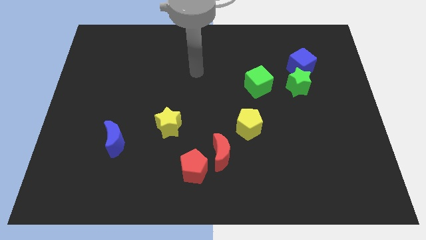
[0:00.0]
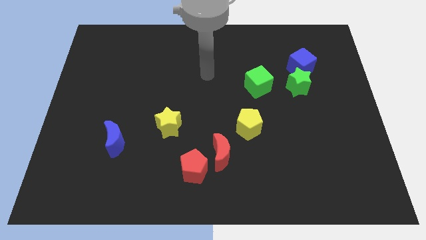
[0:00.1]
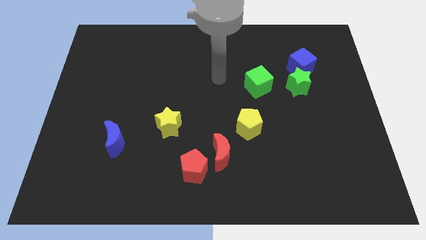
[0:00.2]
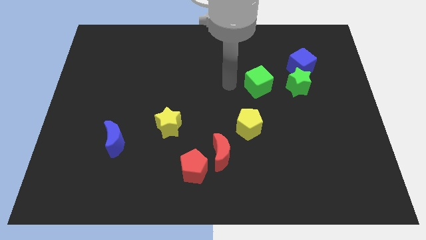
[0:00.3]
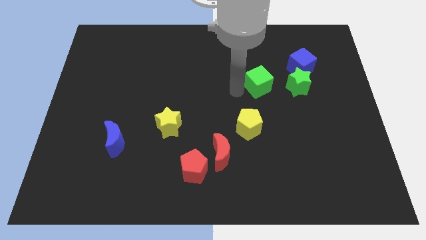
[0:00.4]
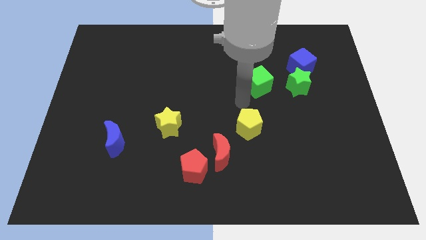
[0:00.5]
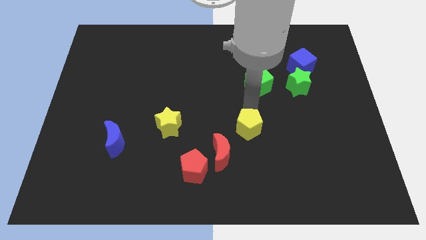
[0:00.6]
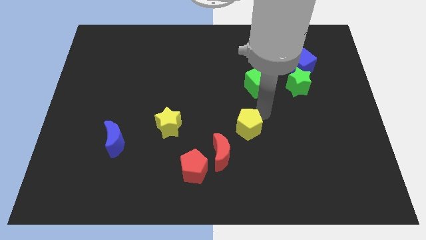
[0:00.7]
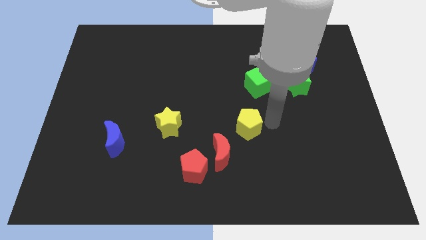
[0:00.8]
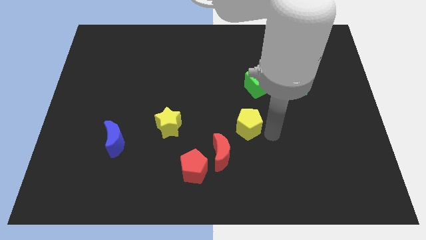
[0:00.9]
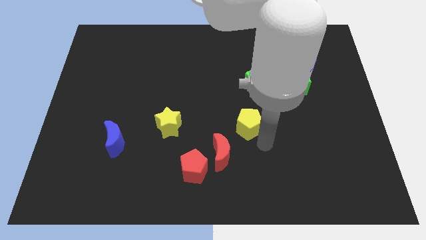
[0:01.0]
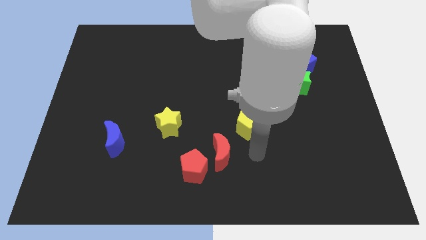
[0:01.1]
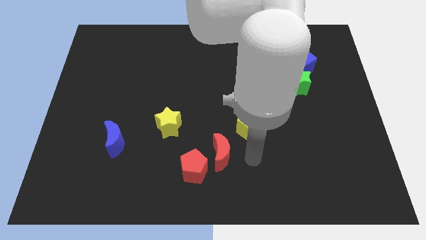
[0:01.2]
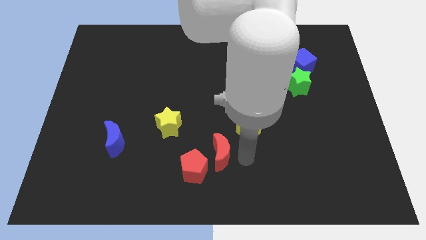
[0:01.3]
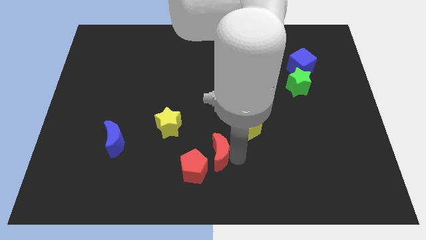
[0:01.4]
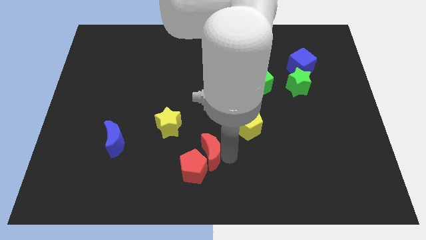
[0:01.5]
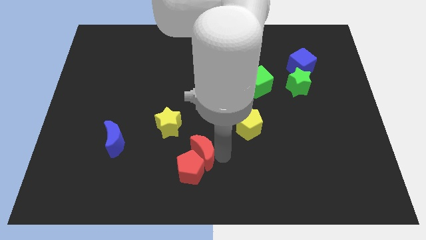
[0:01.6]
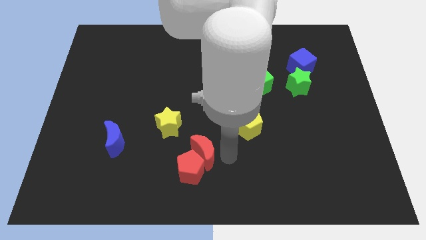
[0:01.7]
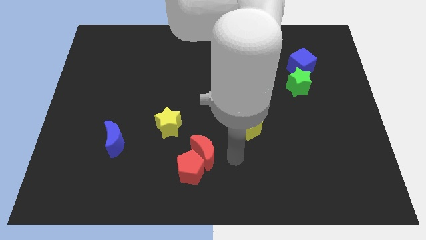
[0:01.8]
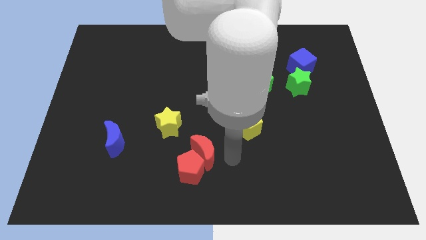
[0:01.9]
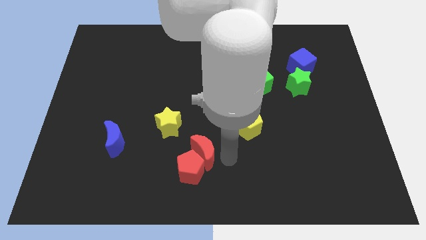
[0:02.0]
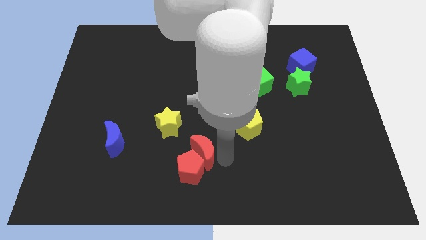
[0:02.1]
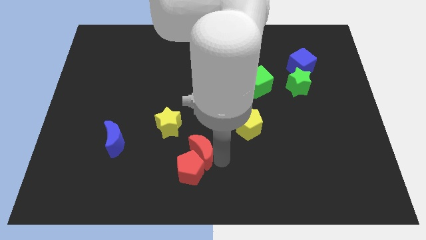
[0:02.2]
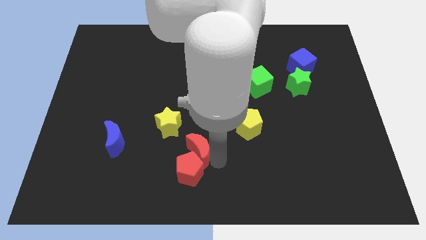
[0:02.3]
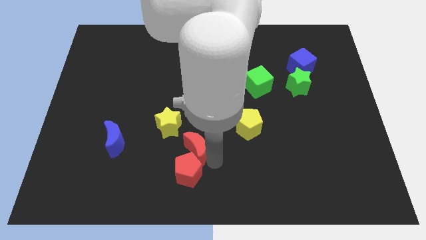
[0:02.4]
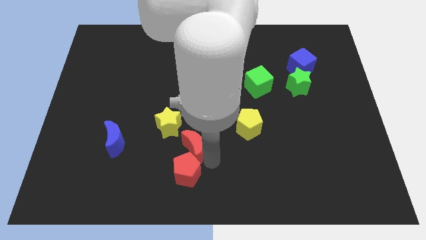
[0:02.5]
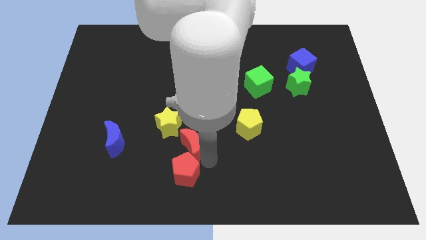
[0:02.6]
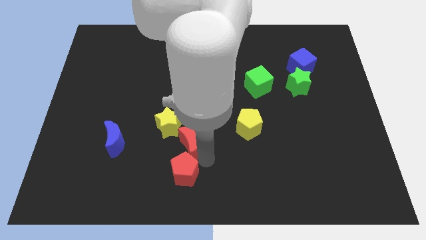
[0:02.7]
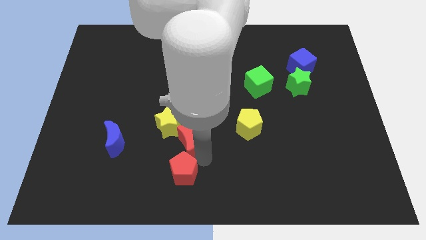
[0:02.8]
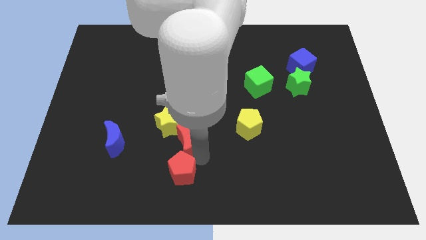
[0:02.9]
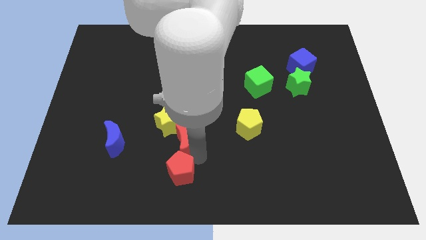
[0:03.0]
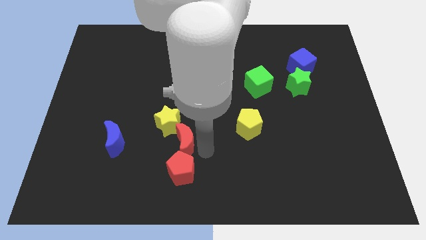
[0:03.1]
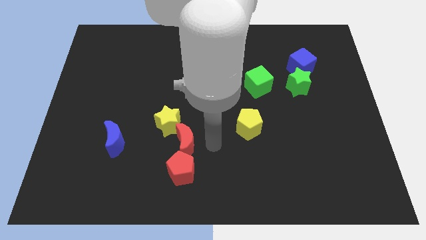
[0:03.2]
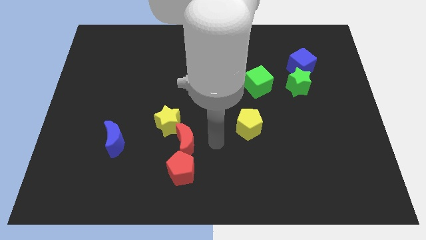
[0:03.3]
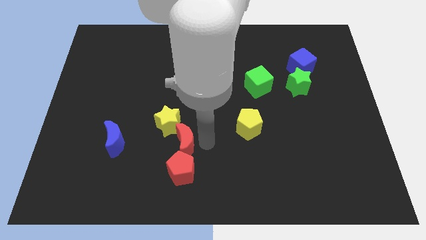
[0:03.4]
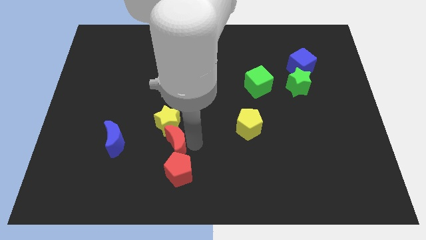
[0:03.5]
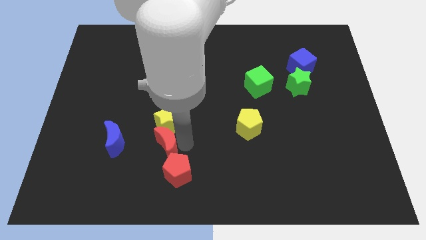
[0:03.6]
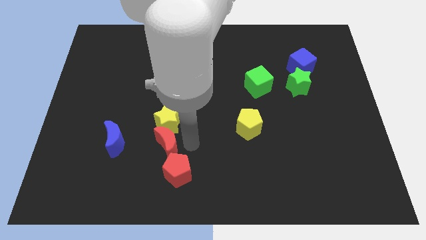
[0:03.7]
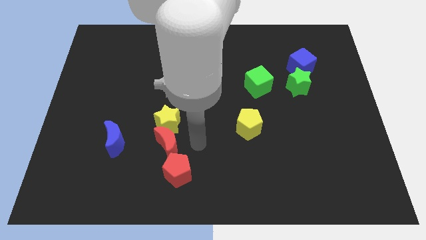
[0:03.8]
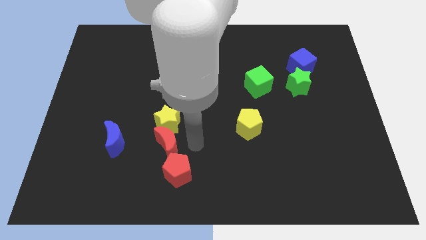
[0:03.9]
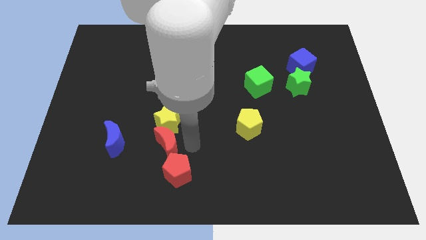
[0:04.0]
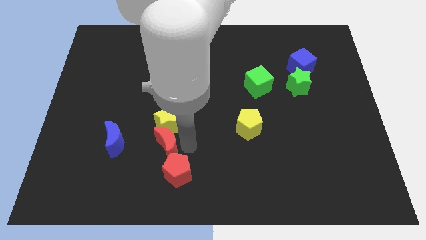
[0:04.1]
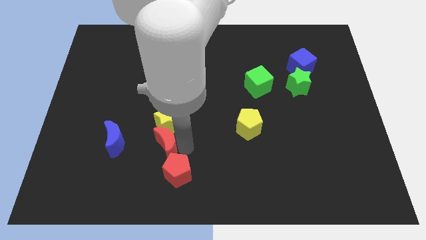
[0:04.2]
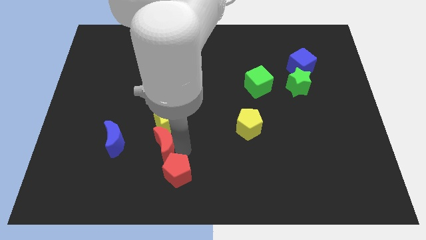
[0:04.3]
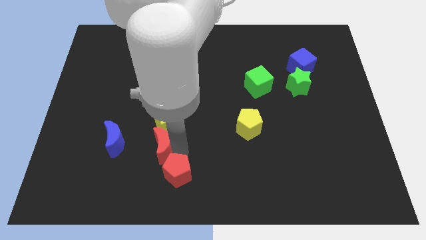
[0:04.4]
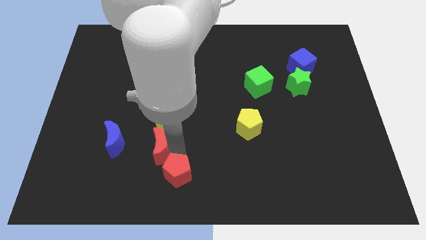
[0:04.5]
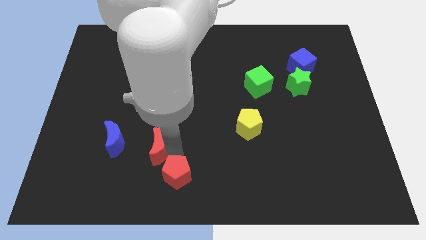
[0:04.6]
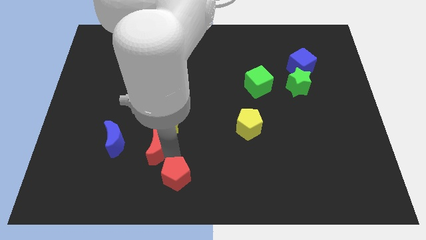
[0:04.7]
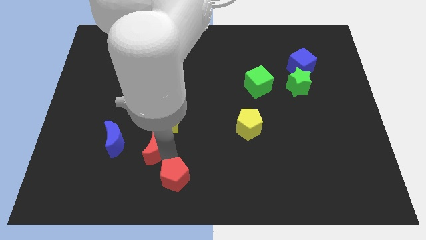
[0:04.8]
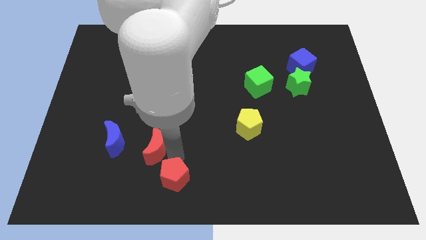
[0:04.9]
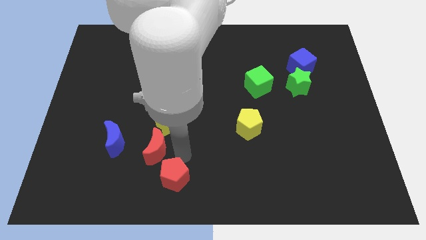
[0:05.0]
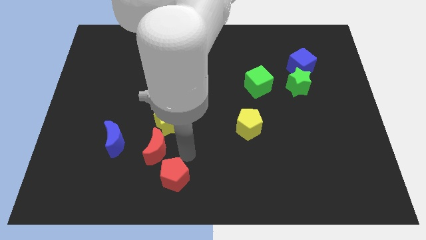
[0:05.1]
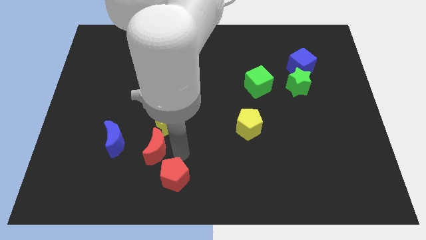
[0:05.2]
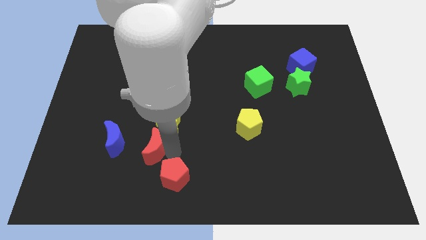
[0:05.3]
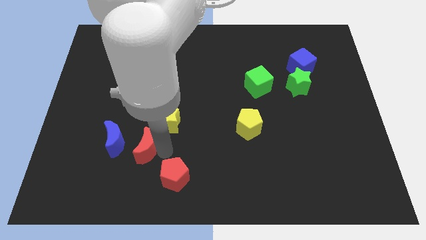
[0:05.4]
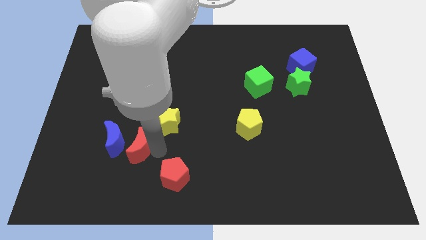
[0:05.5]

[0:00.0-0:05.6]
push the red moon close to the blue moon

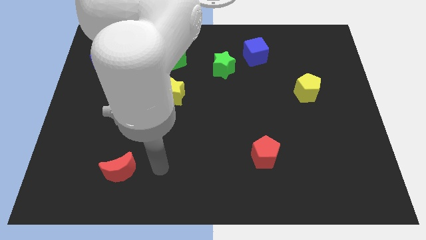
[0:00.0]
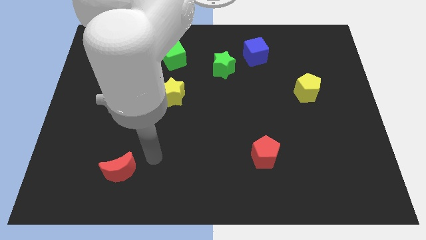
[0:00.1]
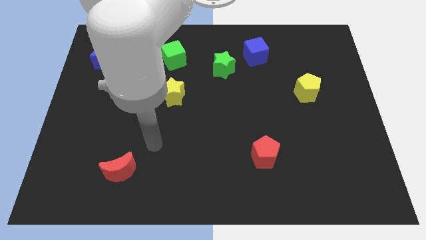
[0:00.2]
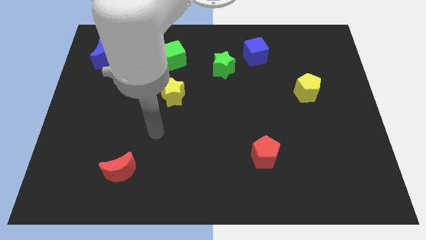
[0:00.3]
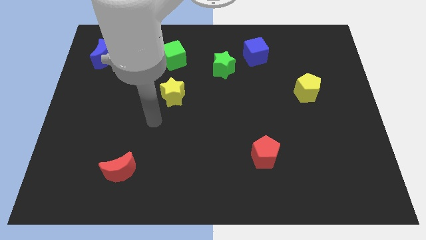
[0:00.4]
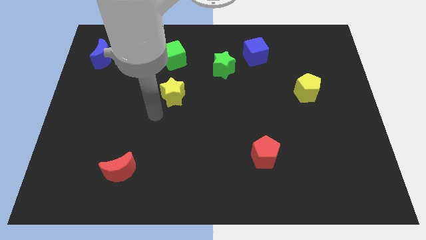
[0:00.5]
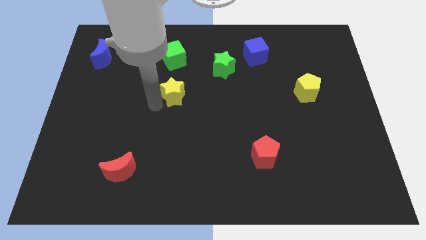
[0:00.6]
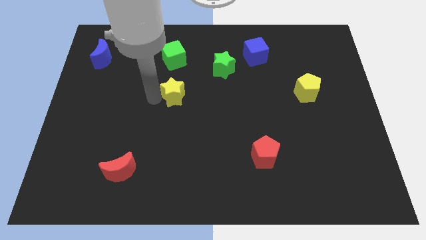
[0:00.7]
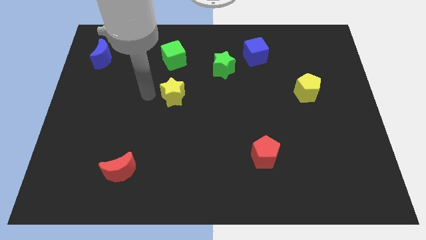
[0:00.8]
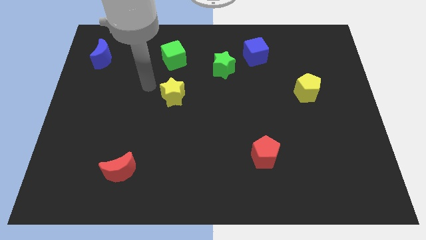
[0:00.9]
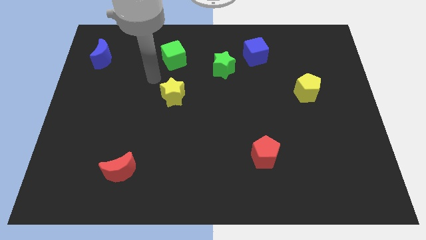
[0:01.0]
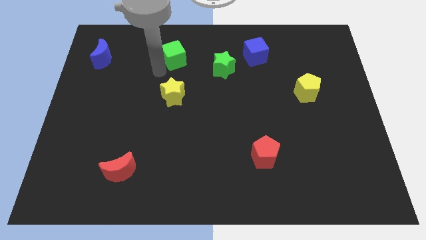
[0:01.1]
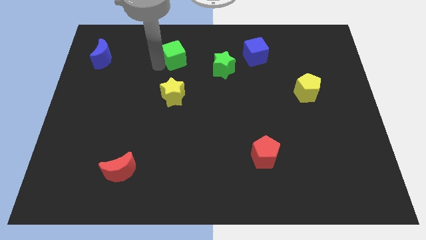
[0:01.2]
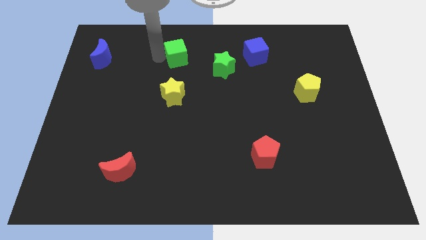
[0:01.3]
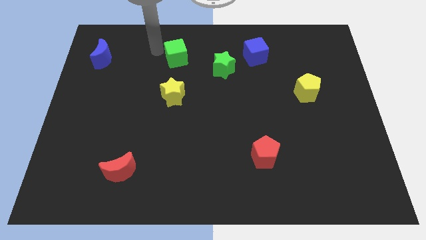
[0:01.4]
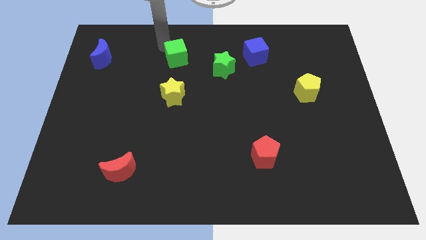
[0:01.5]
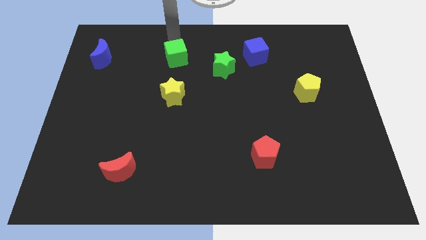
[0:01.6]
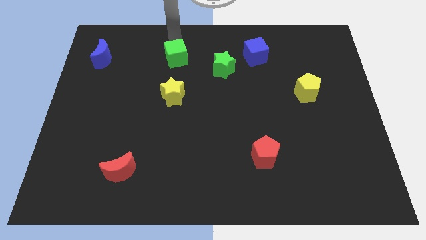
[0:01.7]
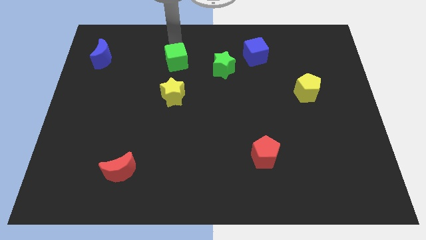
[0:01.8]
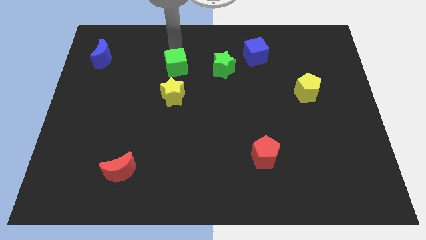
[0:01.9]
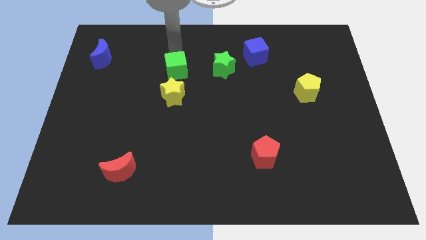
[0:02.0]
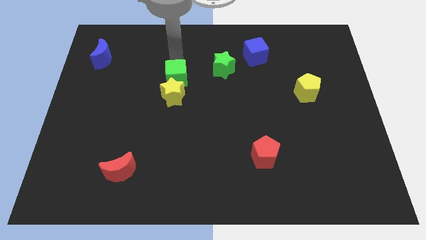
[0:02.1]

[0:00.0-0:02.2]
put the green cube next to the yellow star

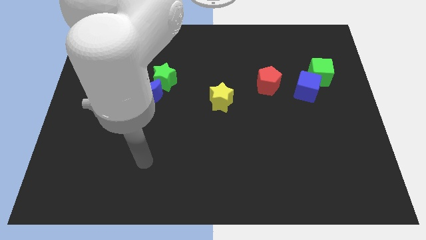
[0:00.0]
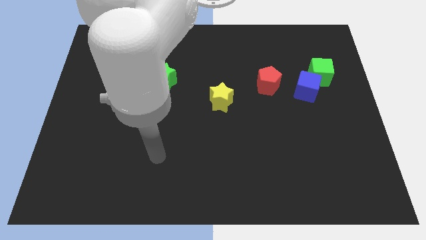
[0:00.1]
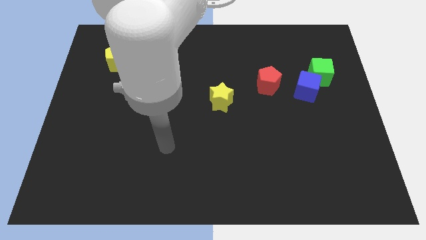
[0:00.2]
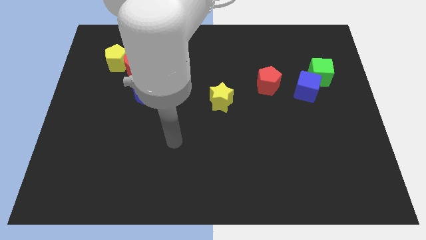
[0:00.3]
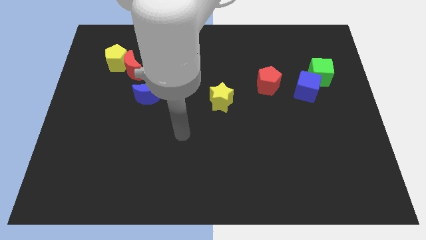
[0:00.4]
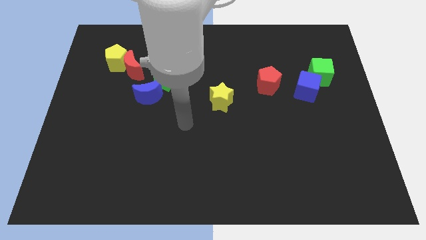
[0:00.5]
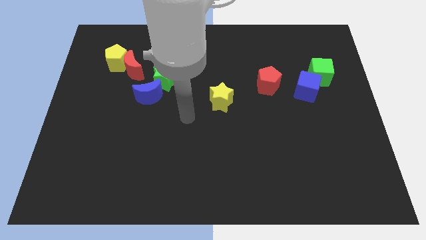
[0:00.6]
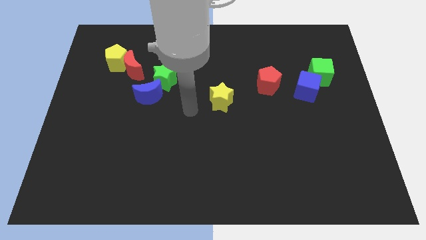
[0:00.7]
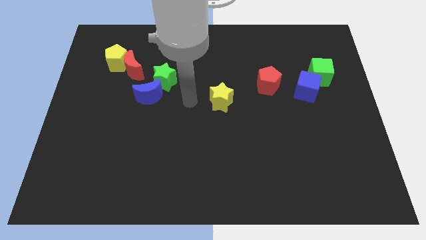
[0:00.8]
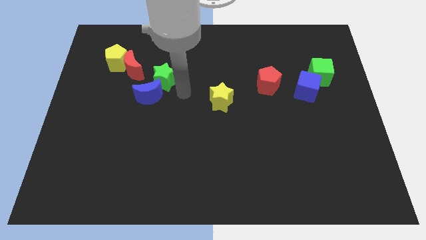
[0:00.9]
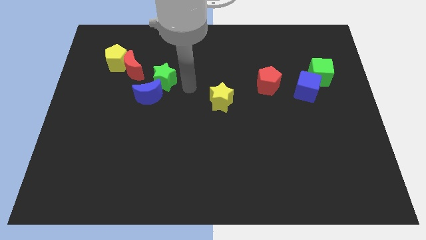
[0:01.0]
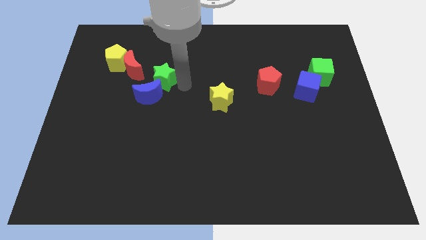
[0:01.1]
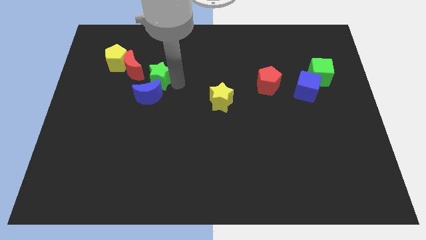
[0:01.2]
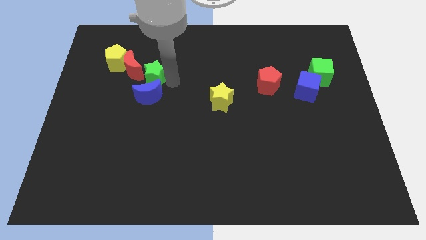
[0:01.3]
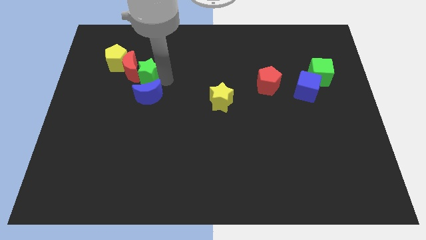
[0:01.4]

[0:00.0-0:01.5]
push the green star towards the red moon
